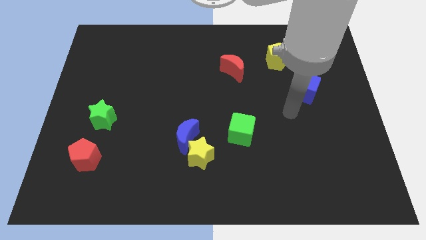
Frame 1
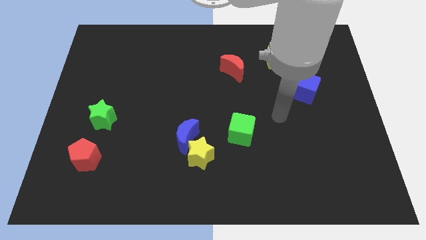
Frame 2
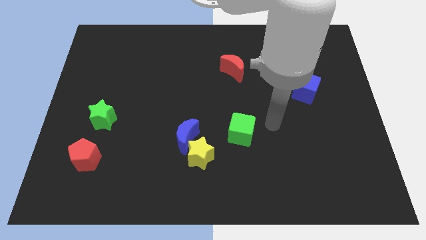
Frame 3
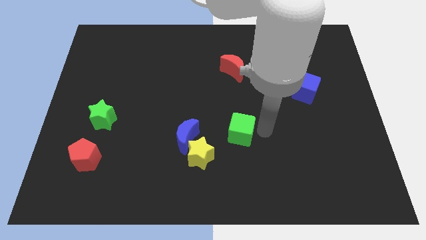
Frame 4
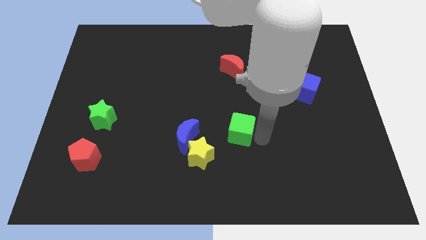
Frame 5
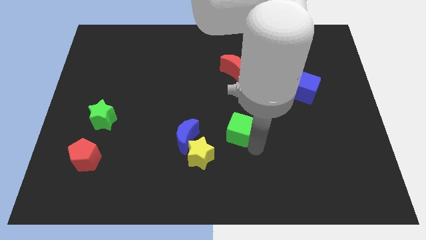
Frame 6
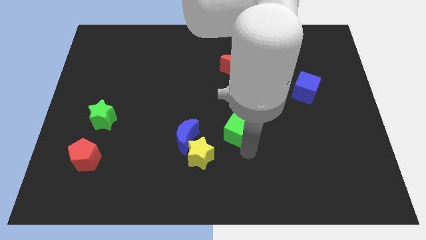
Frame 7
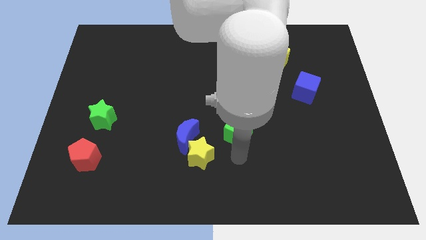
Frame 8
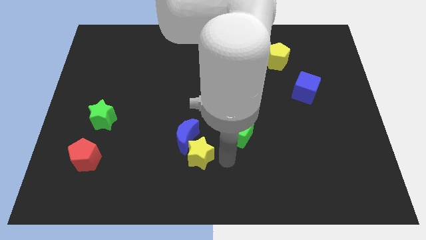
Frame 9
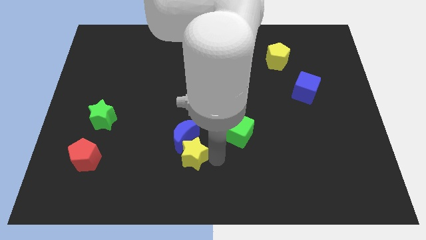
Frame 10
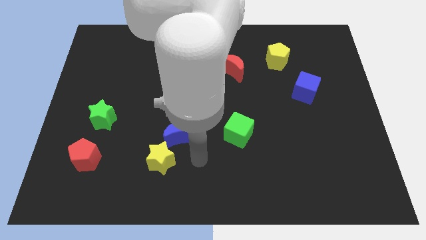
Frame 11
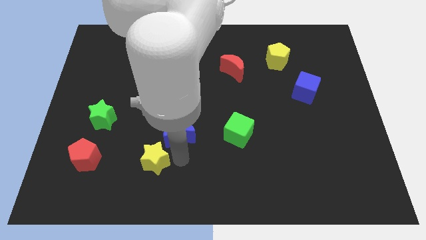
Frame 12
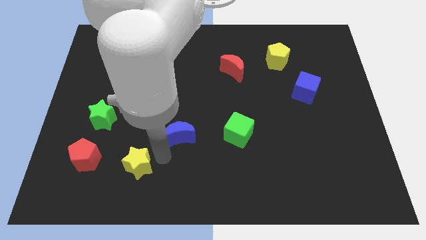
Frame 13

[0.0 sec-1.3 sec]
pull the blue moon apart from the yellow star

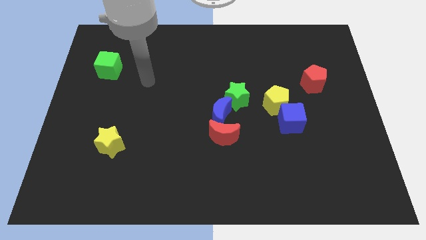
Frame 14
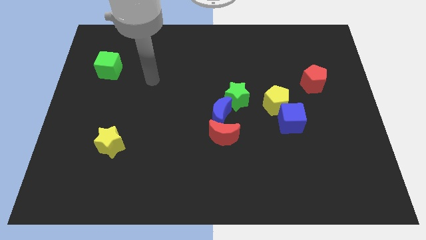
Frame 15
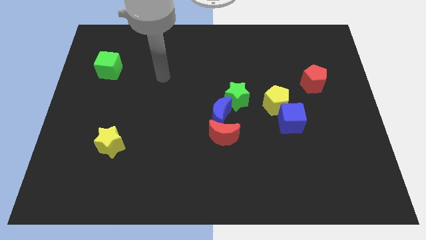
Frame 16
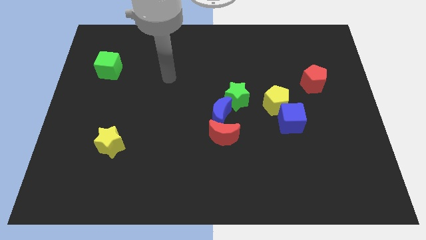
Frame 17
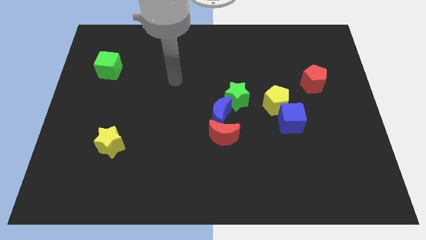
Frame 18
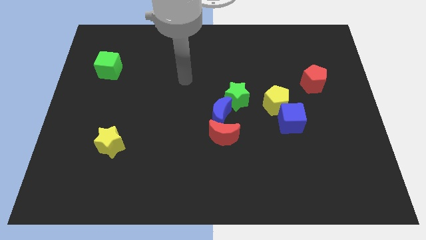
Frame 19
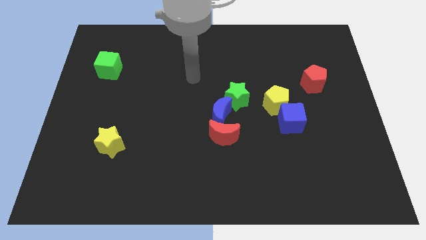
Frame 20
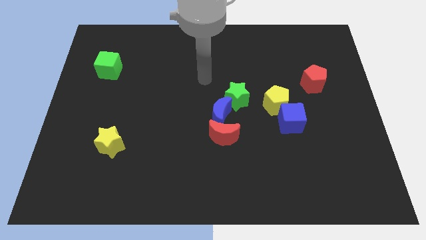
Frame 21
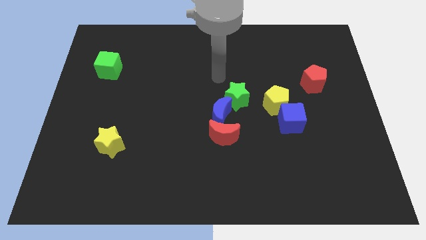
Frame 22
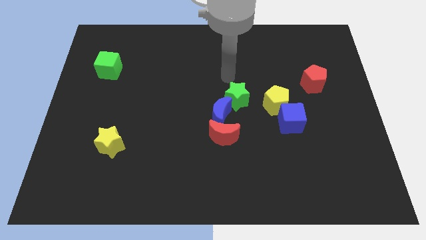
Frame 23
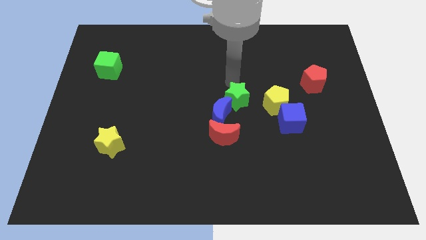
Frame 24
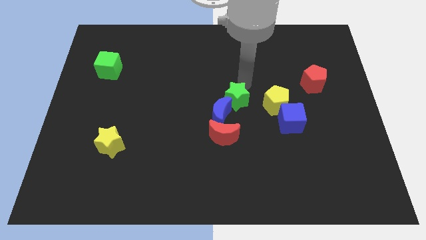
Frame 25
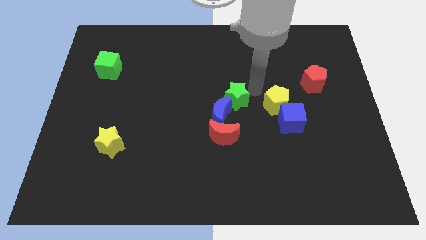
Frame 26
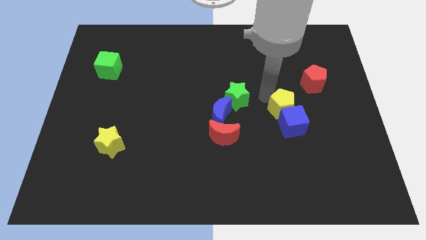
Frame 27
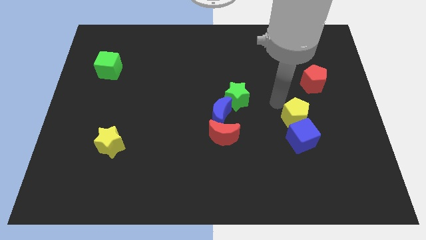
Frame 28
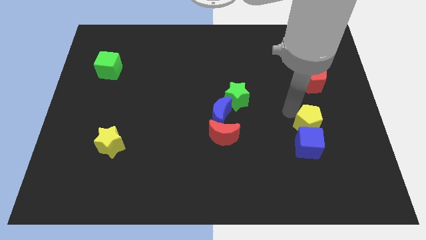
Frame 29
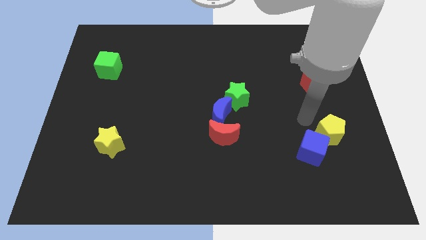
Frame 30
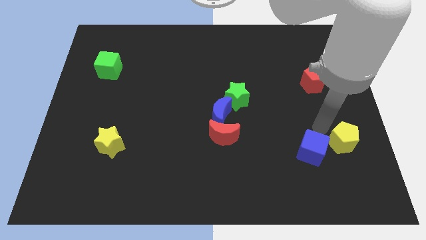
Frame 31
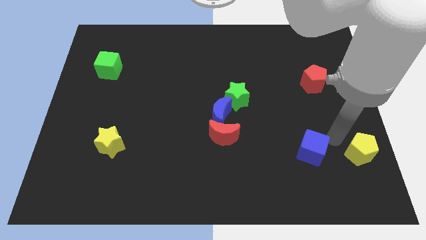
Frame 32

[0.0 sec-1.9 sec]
separate the blue cube from the yellow pentagon

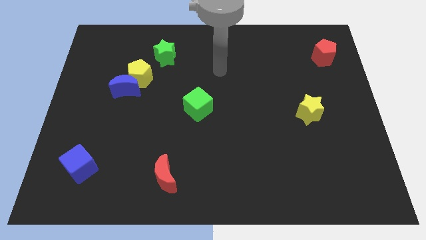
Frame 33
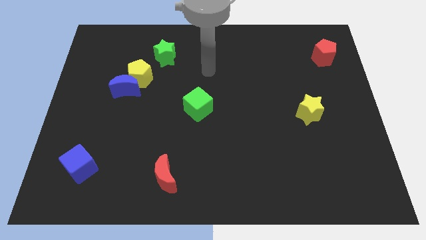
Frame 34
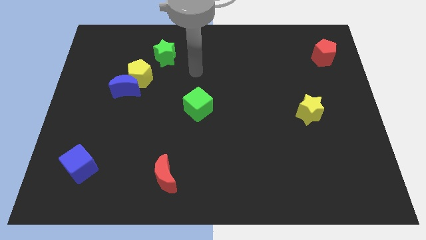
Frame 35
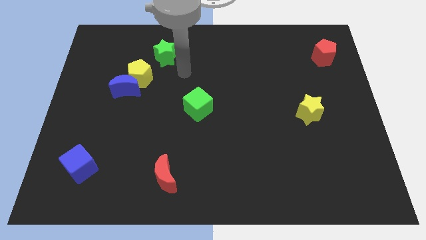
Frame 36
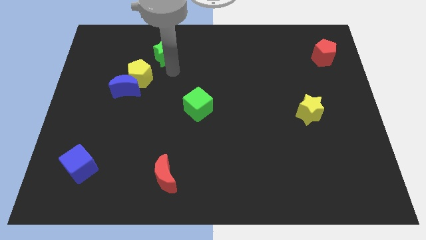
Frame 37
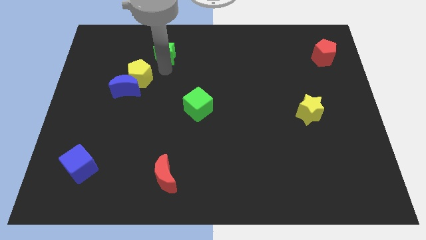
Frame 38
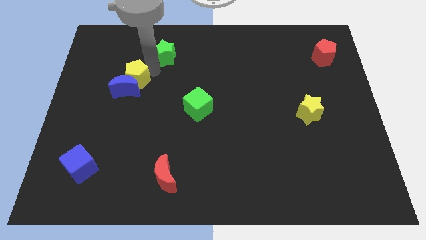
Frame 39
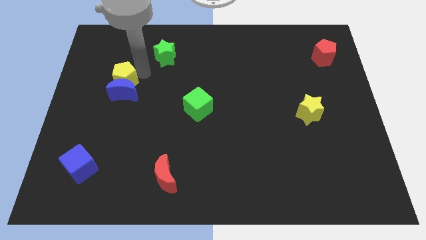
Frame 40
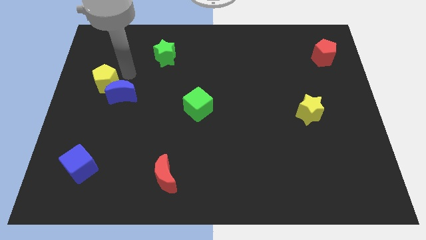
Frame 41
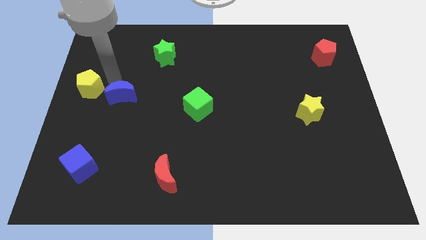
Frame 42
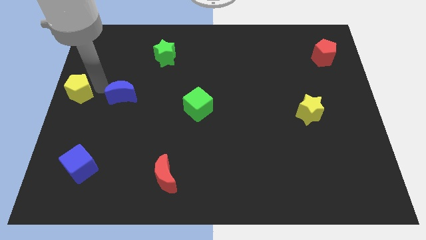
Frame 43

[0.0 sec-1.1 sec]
separate the blue moon from the yellow pentagon

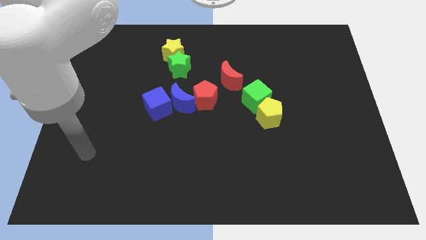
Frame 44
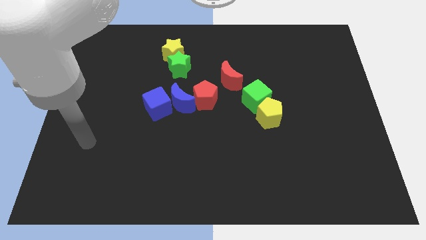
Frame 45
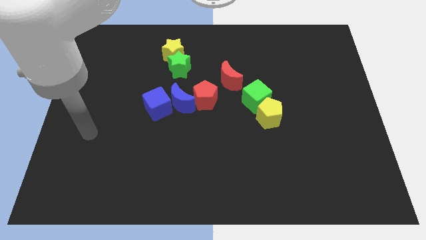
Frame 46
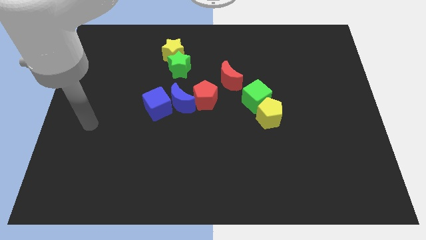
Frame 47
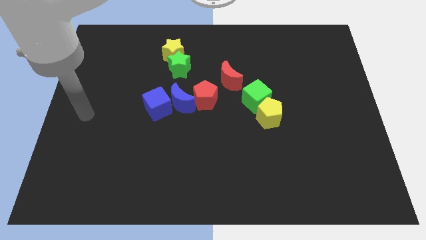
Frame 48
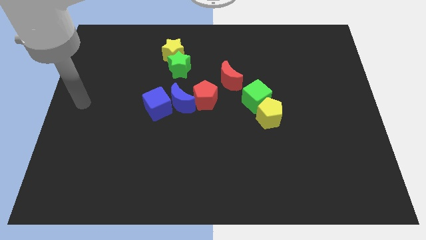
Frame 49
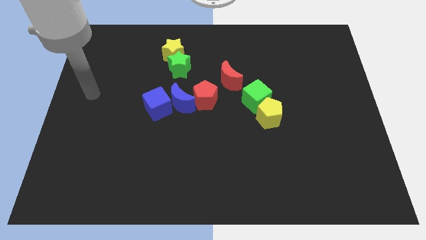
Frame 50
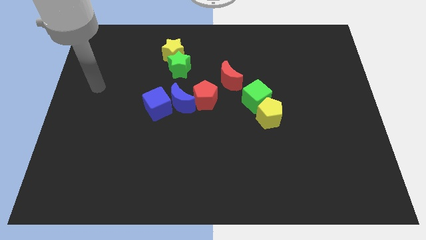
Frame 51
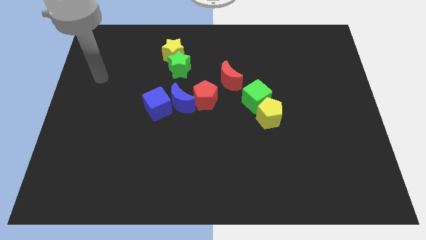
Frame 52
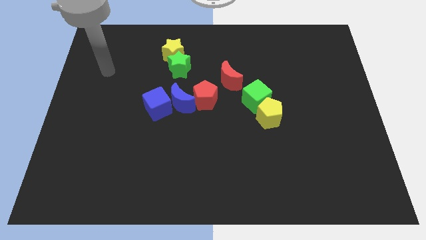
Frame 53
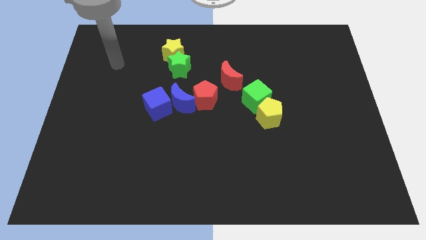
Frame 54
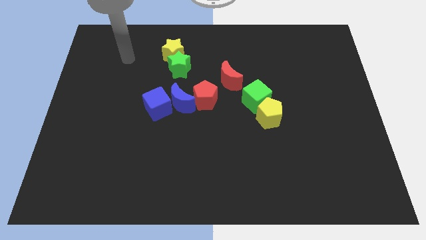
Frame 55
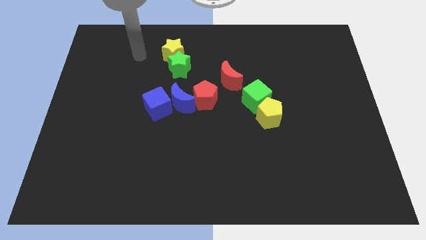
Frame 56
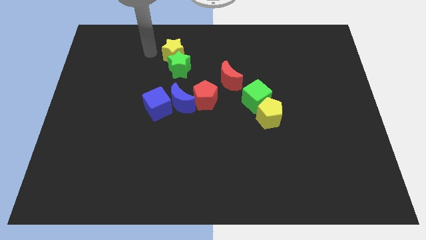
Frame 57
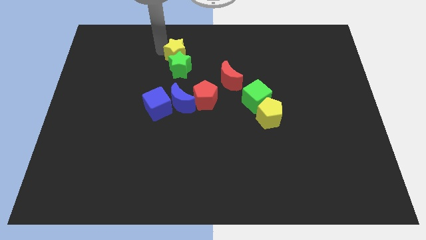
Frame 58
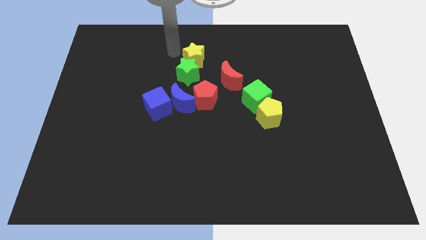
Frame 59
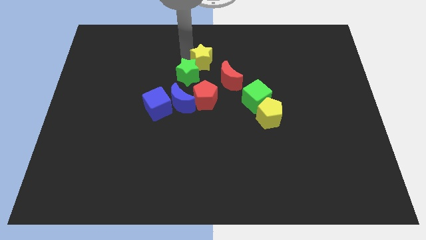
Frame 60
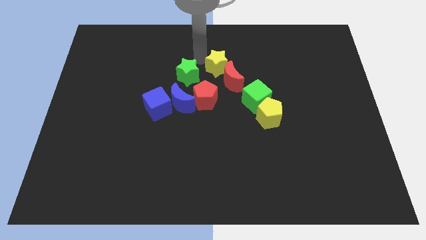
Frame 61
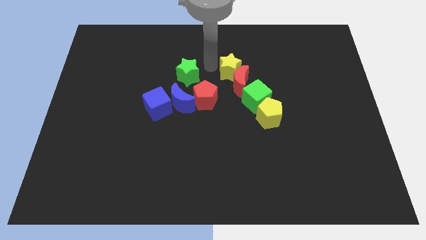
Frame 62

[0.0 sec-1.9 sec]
separate the green star from the yellow star

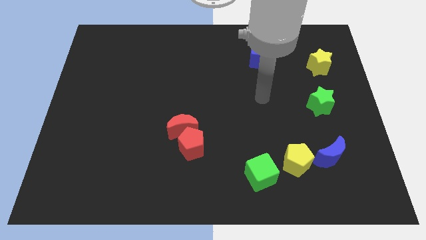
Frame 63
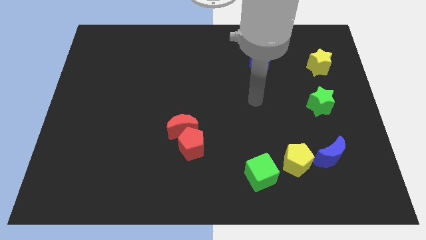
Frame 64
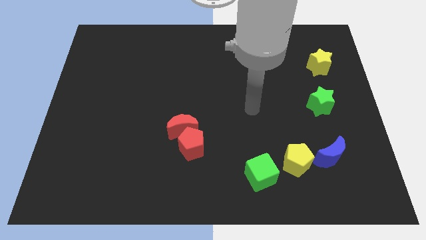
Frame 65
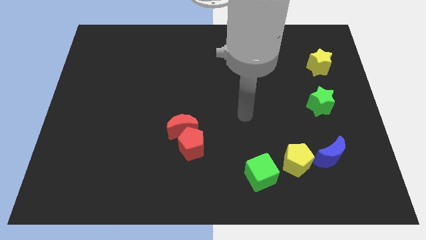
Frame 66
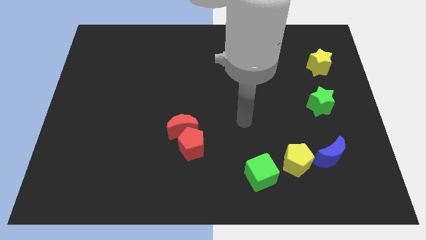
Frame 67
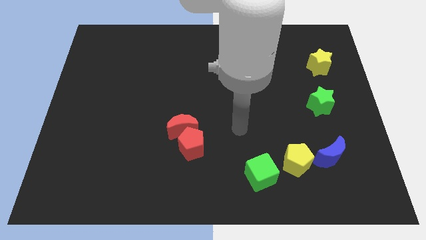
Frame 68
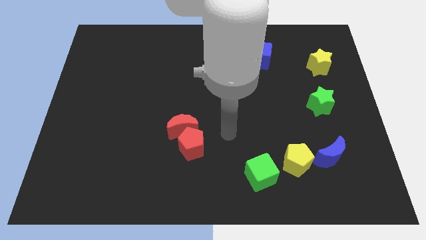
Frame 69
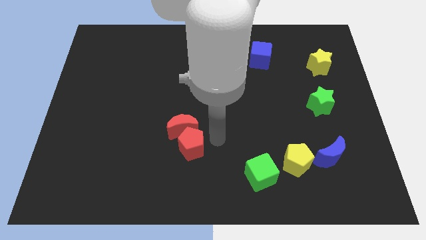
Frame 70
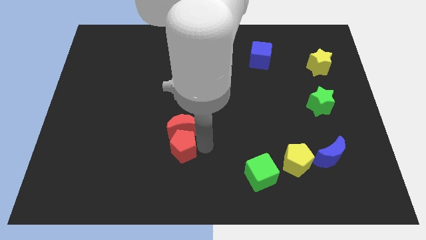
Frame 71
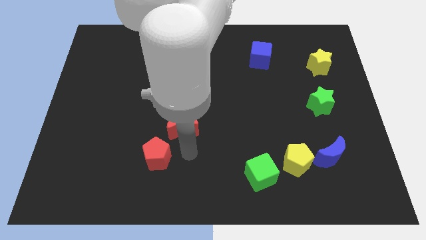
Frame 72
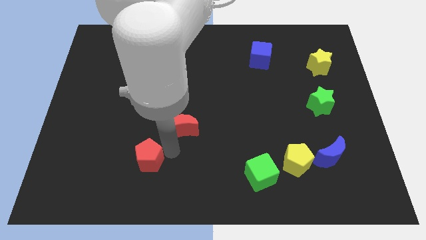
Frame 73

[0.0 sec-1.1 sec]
separate the red moon from the red pentagon

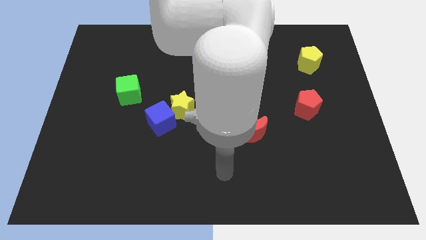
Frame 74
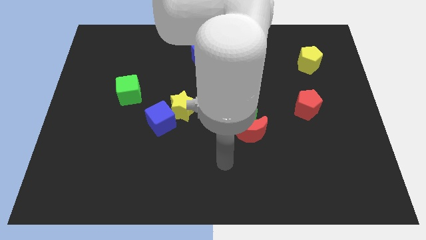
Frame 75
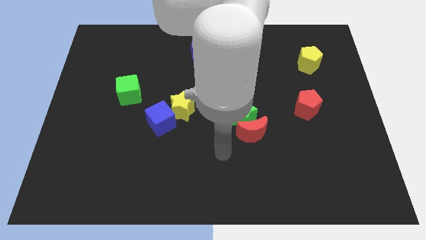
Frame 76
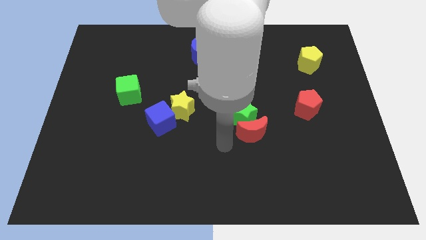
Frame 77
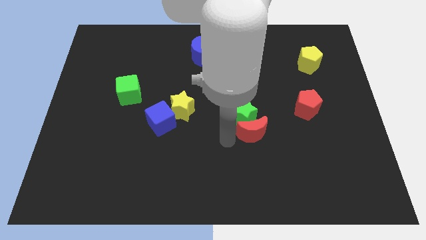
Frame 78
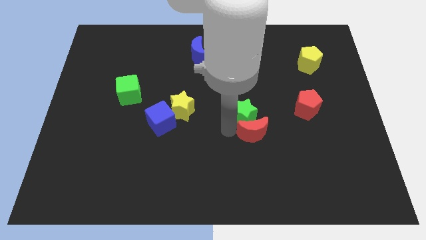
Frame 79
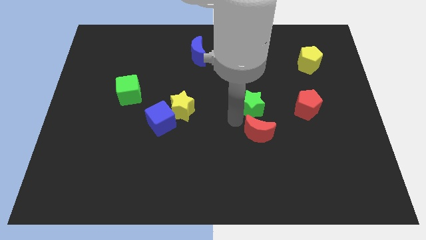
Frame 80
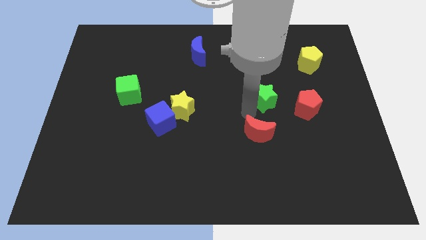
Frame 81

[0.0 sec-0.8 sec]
separate the red moon from the green star

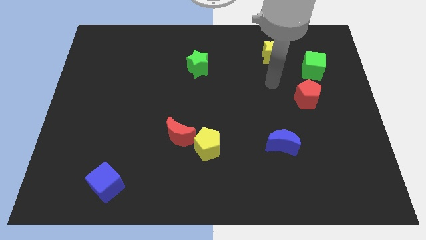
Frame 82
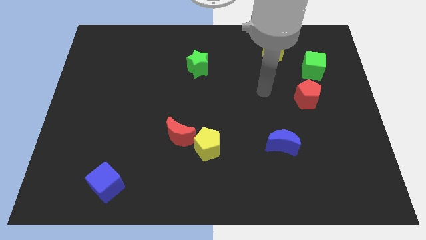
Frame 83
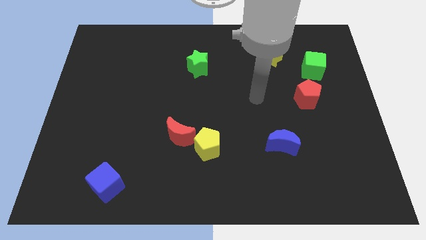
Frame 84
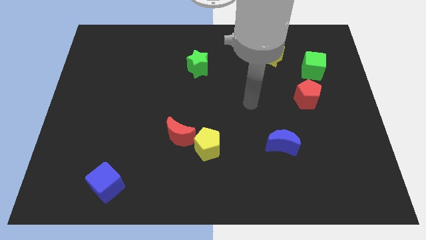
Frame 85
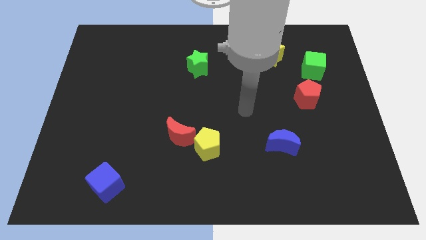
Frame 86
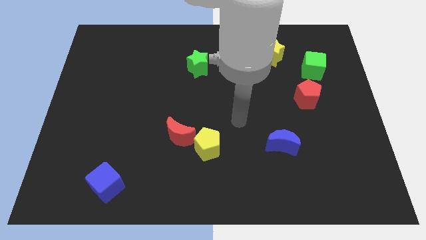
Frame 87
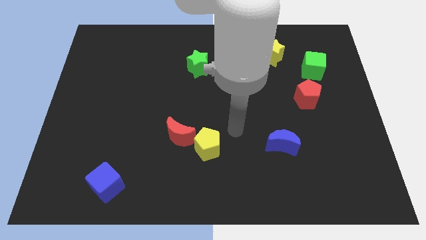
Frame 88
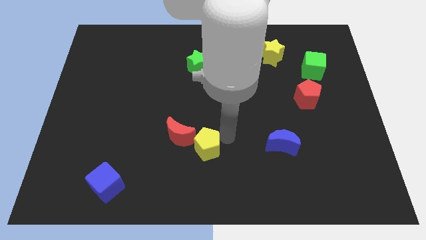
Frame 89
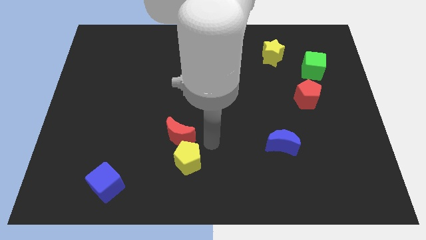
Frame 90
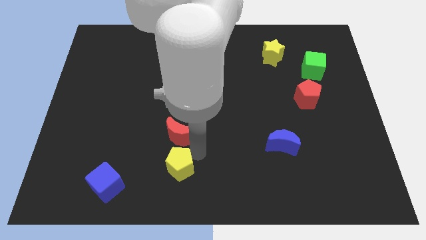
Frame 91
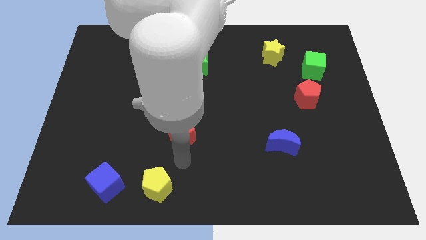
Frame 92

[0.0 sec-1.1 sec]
pull the red moon apart from the yellow pentagon
